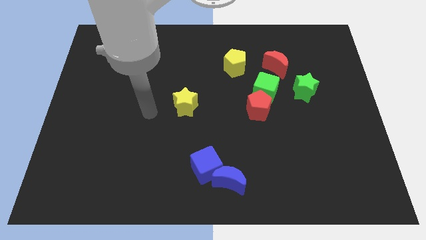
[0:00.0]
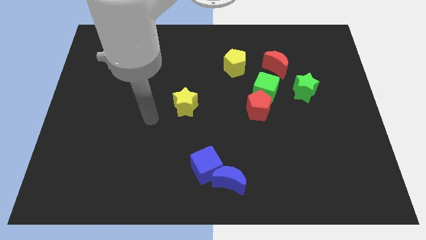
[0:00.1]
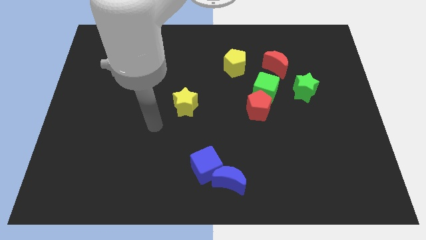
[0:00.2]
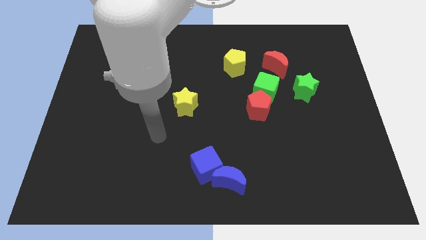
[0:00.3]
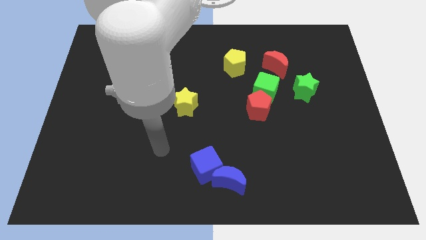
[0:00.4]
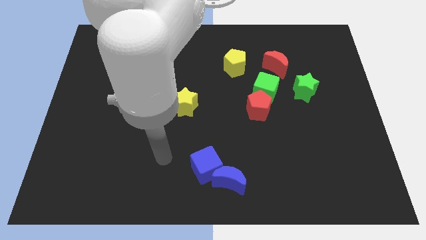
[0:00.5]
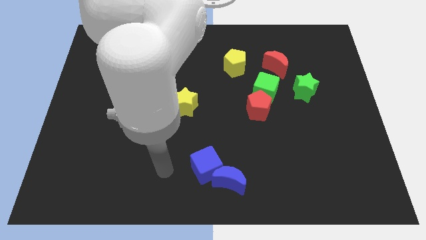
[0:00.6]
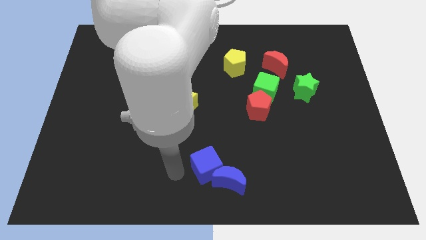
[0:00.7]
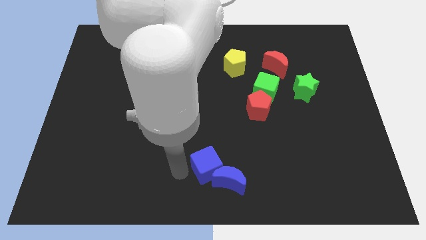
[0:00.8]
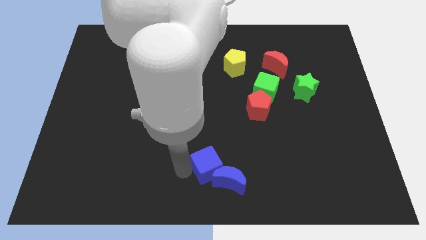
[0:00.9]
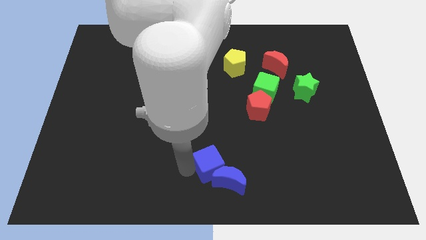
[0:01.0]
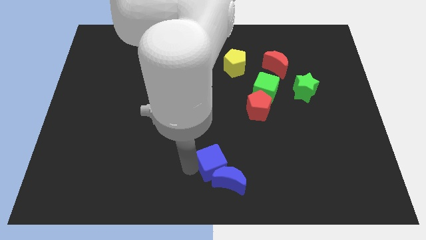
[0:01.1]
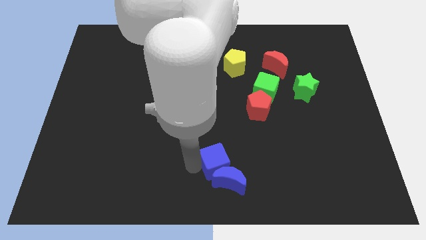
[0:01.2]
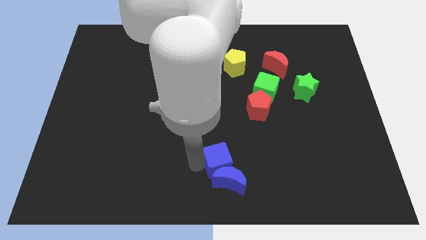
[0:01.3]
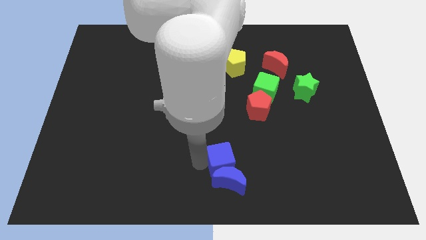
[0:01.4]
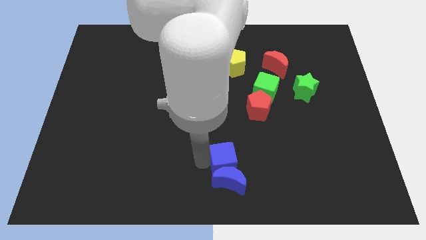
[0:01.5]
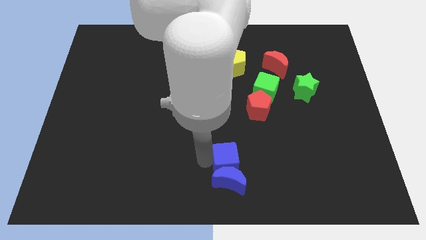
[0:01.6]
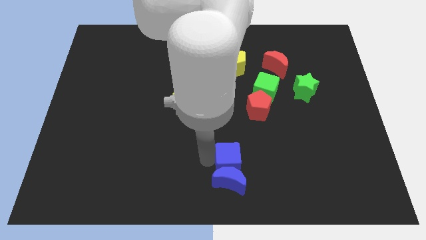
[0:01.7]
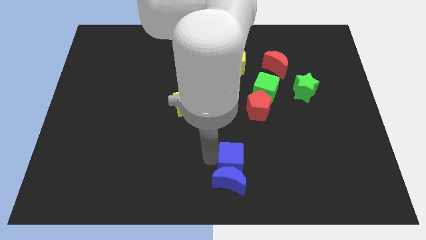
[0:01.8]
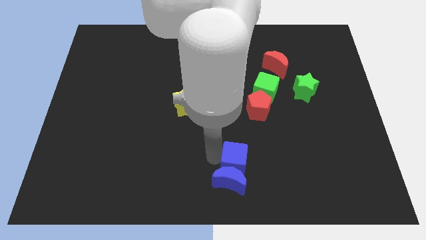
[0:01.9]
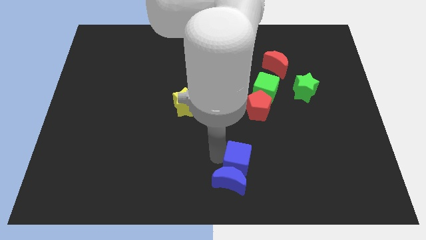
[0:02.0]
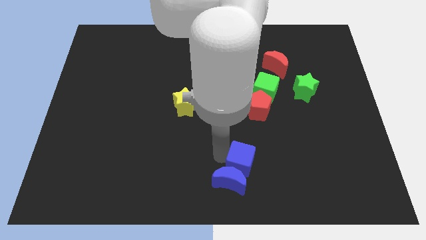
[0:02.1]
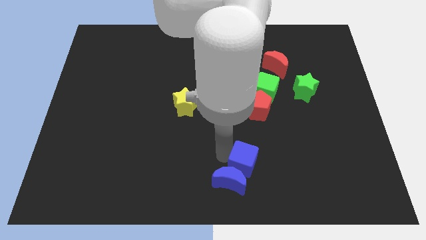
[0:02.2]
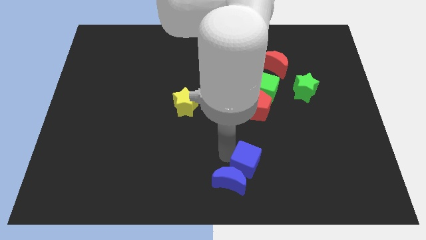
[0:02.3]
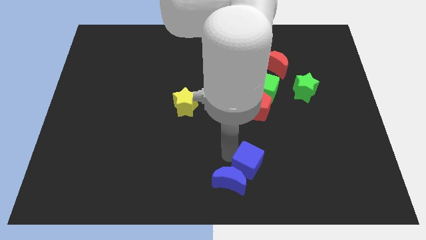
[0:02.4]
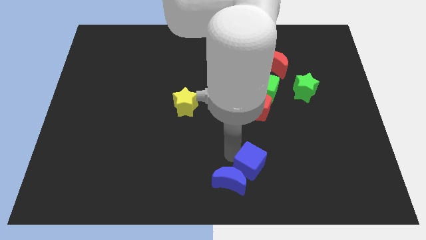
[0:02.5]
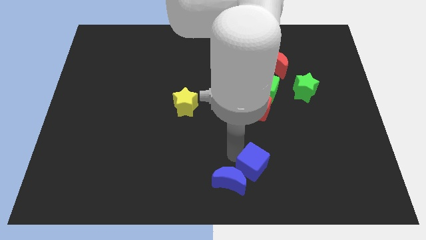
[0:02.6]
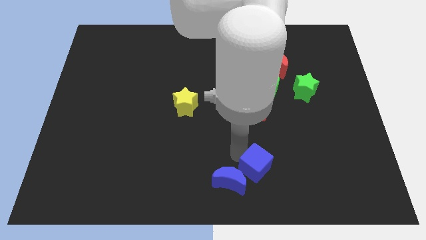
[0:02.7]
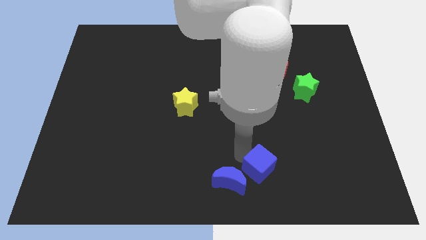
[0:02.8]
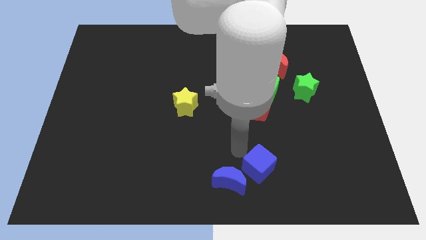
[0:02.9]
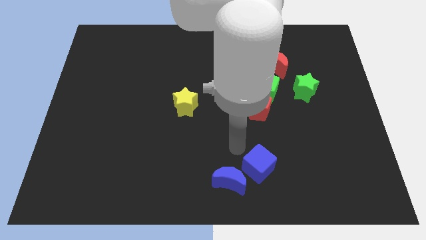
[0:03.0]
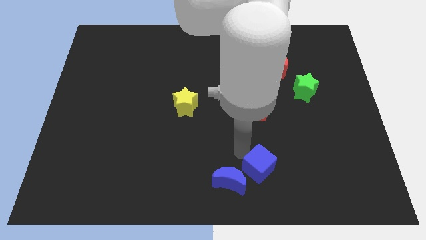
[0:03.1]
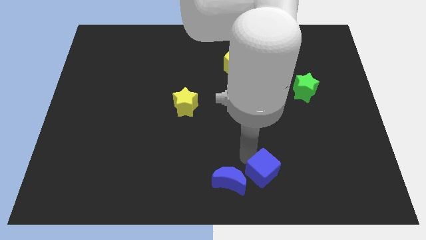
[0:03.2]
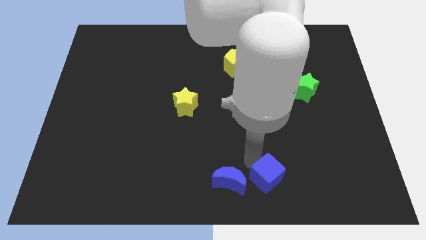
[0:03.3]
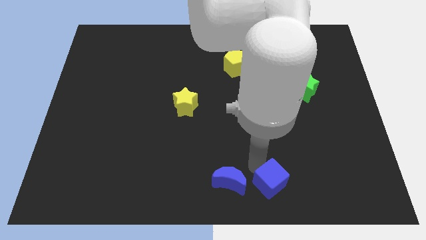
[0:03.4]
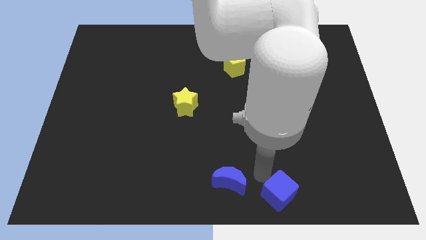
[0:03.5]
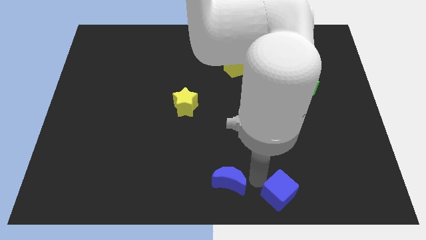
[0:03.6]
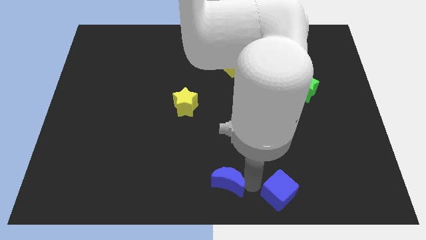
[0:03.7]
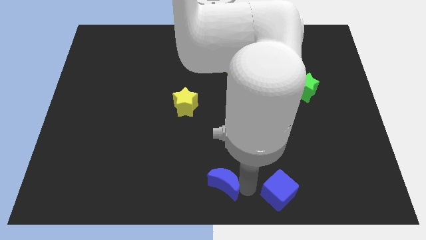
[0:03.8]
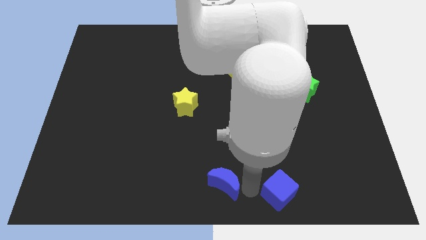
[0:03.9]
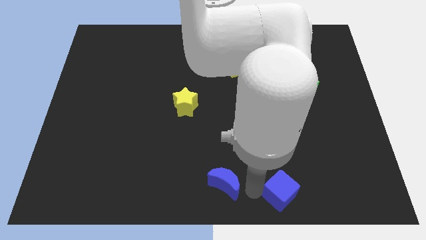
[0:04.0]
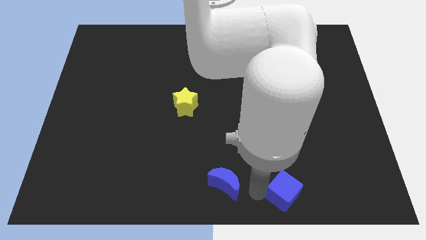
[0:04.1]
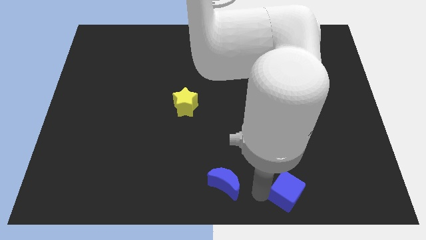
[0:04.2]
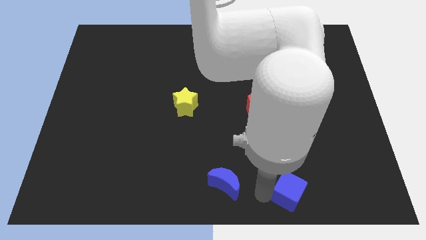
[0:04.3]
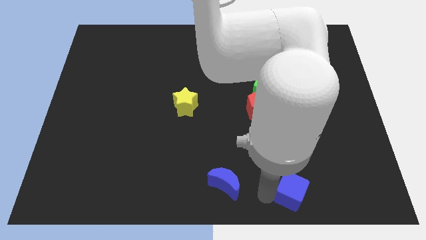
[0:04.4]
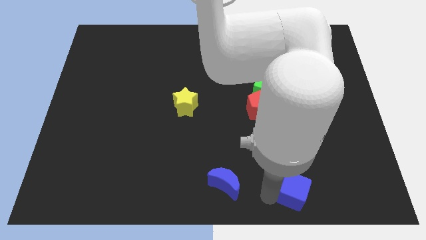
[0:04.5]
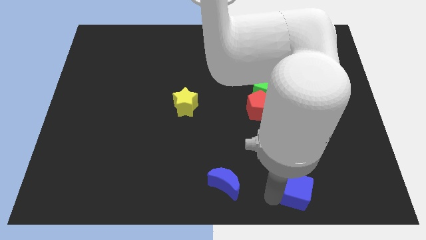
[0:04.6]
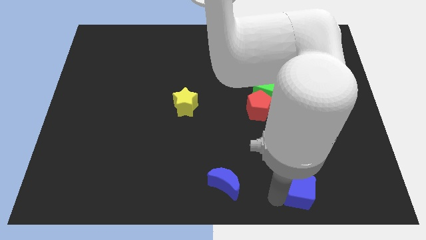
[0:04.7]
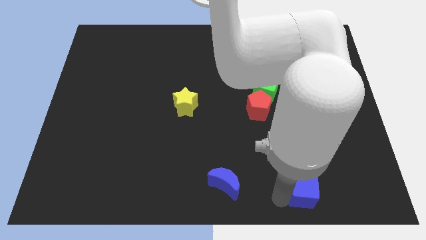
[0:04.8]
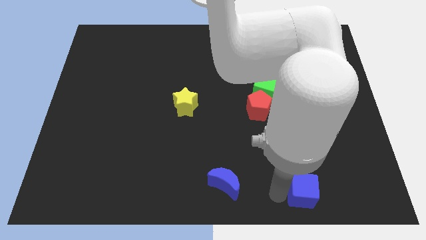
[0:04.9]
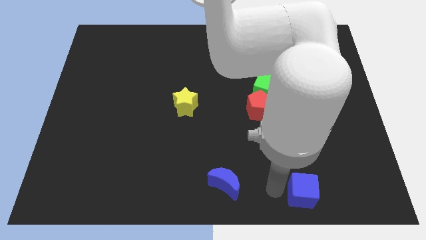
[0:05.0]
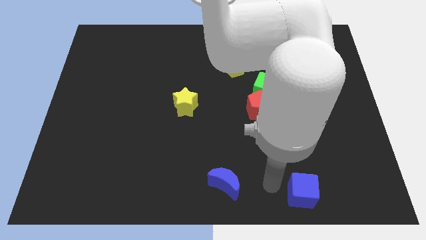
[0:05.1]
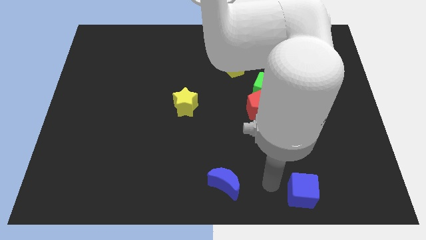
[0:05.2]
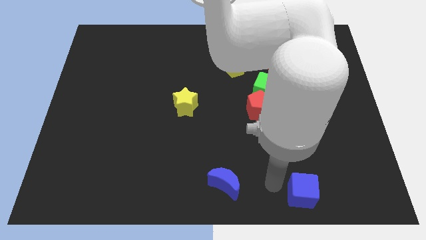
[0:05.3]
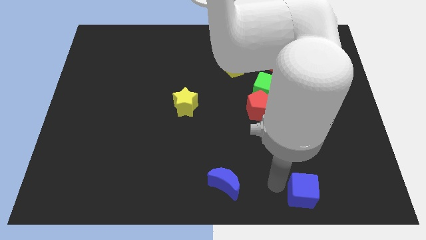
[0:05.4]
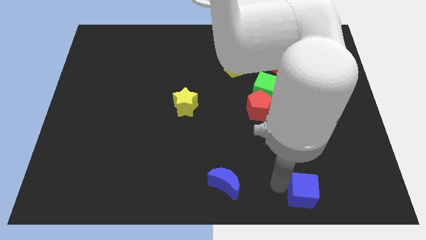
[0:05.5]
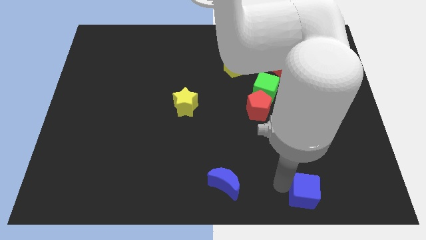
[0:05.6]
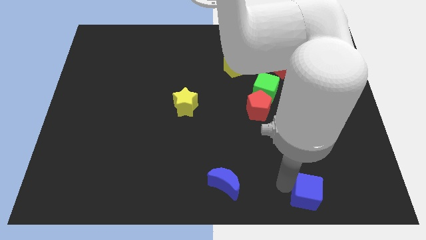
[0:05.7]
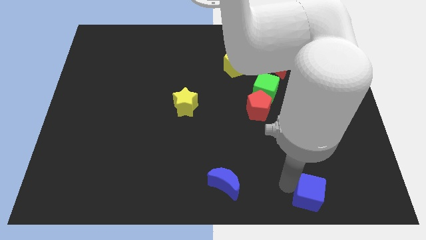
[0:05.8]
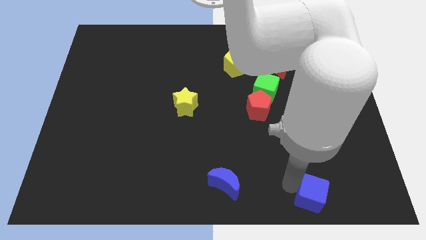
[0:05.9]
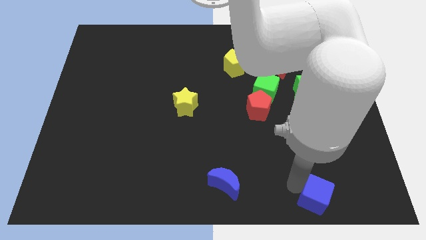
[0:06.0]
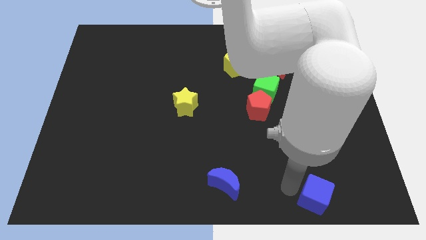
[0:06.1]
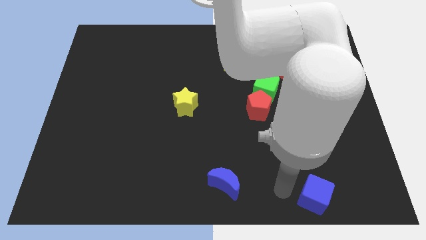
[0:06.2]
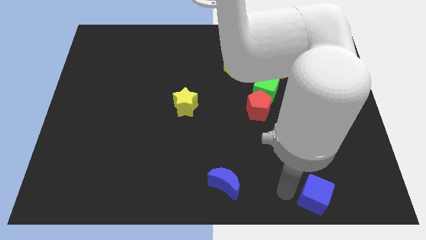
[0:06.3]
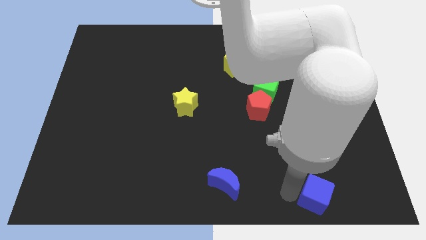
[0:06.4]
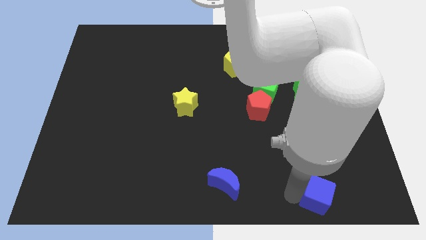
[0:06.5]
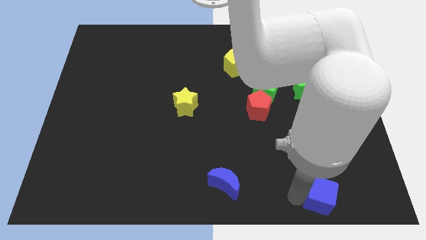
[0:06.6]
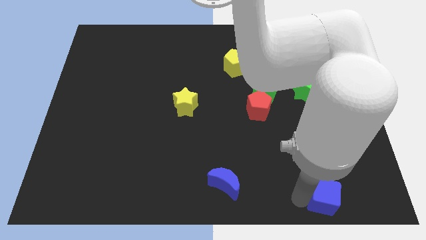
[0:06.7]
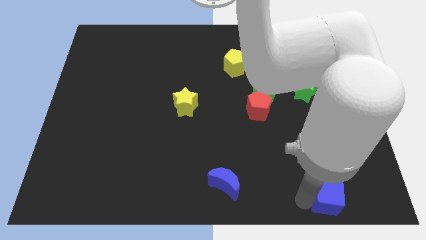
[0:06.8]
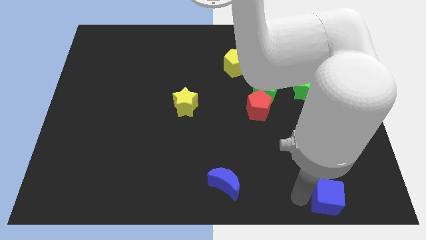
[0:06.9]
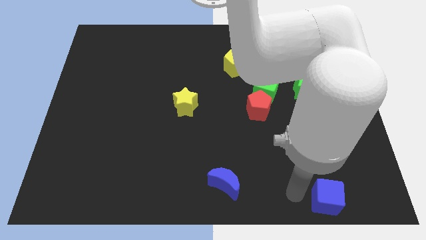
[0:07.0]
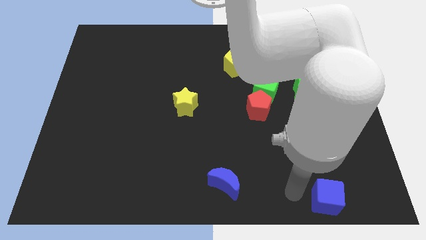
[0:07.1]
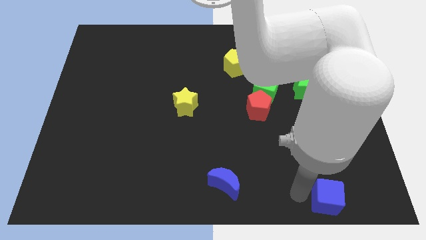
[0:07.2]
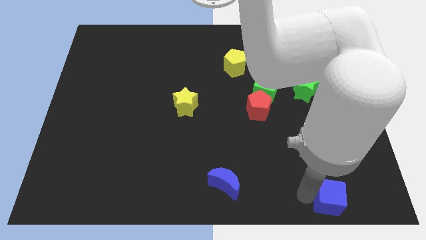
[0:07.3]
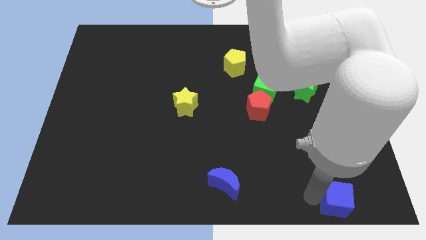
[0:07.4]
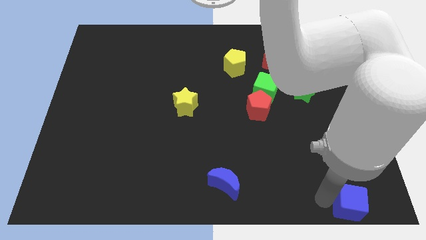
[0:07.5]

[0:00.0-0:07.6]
slide the blue cube to the bottom right corner
